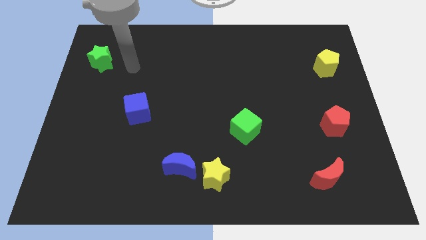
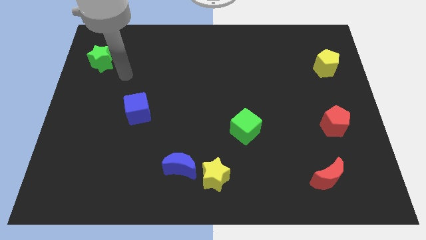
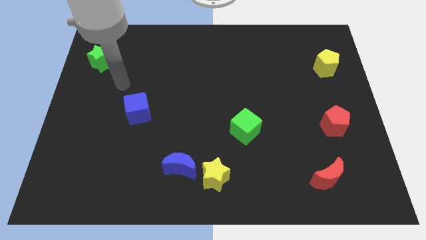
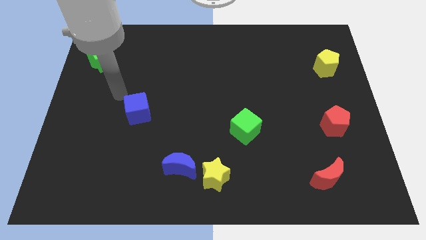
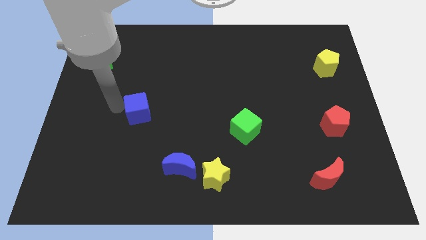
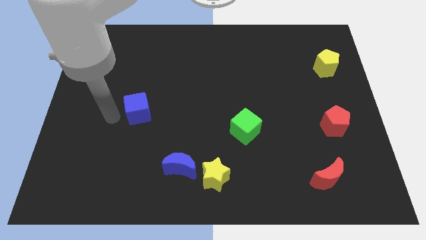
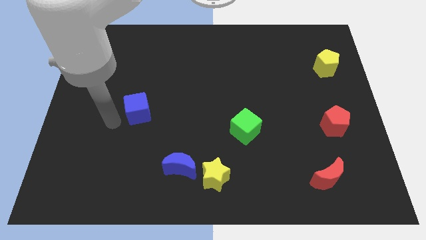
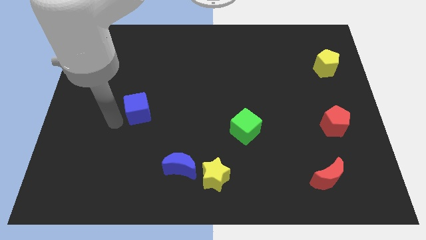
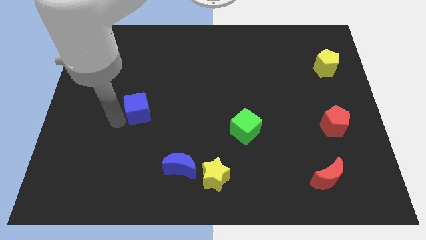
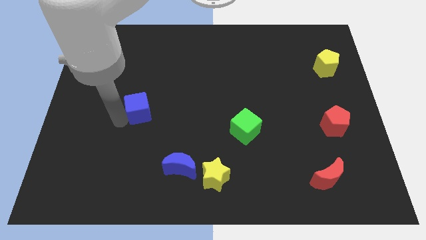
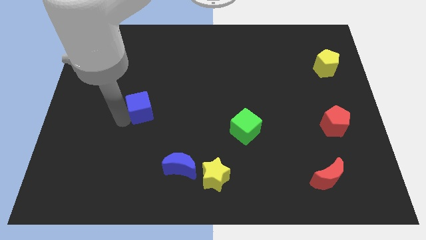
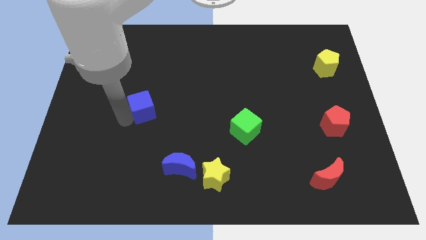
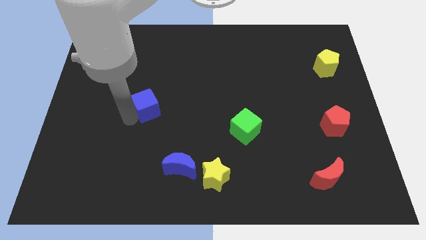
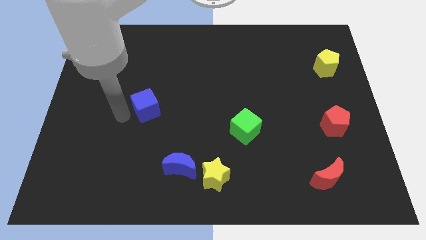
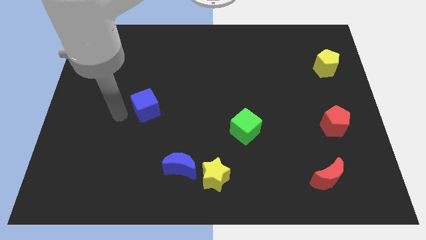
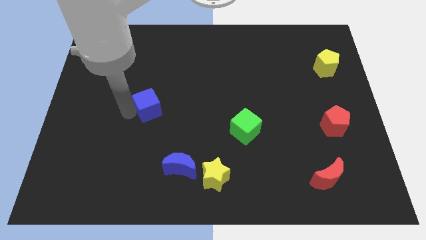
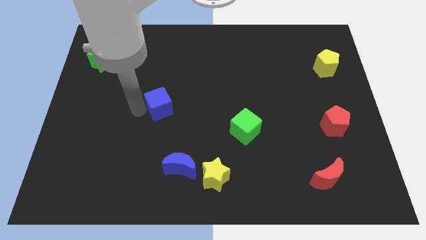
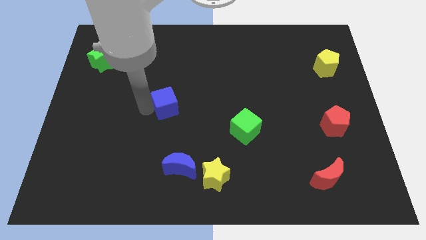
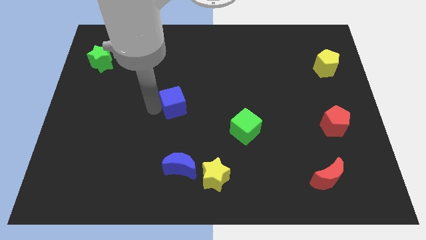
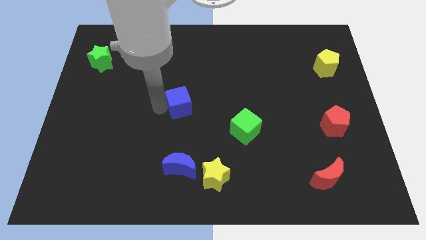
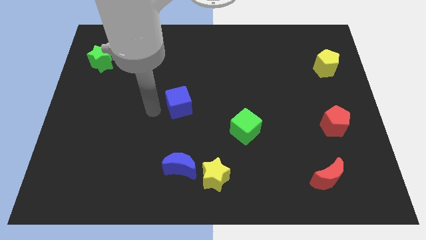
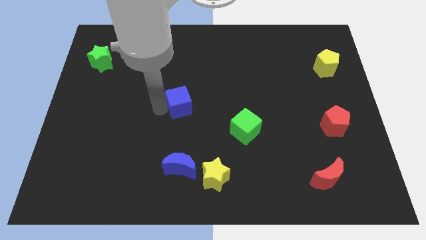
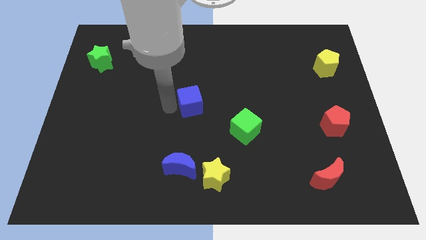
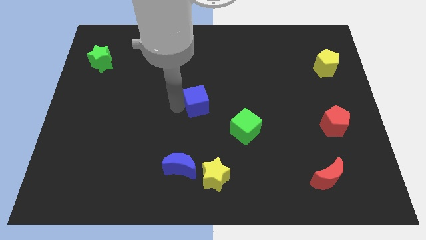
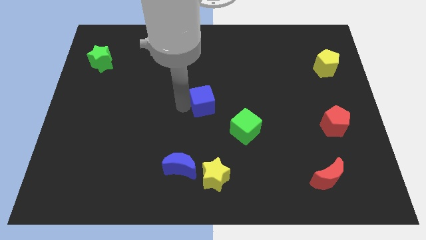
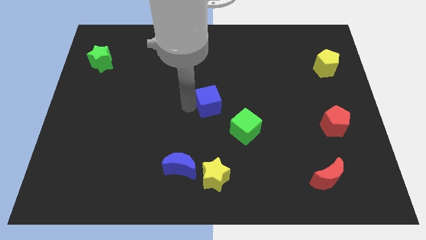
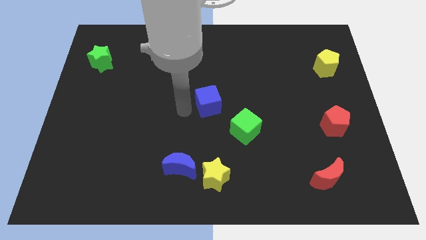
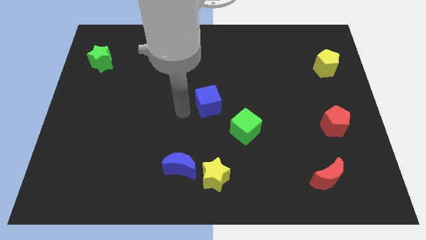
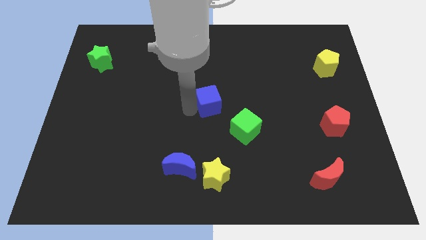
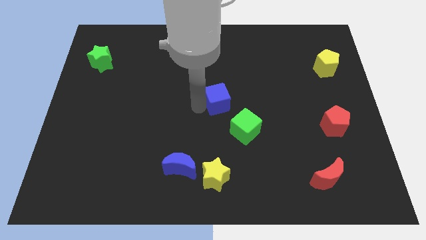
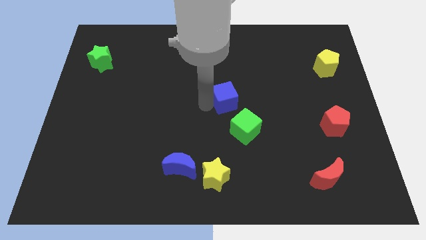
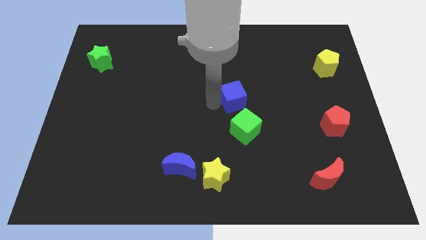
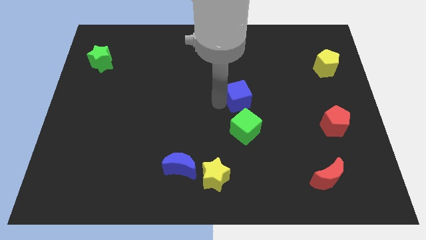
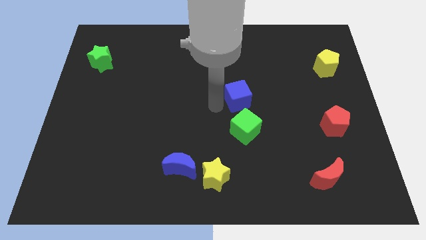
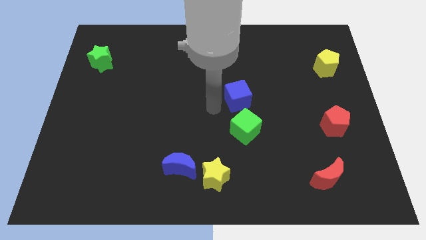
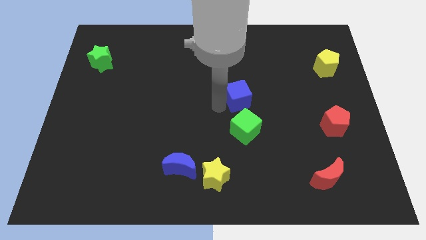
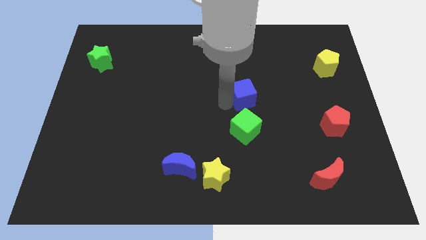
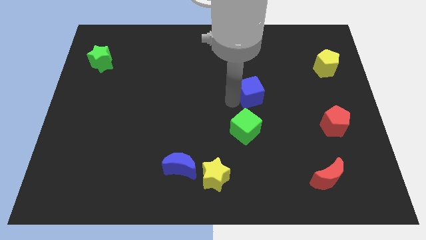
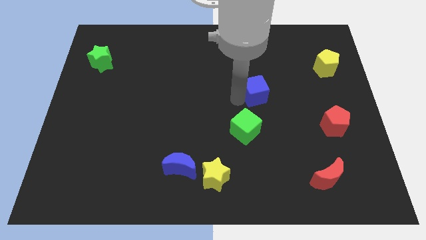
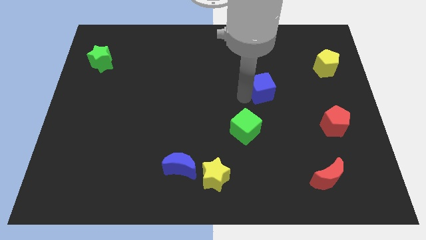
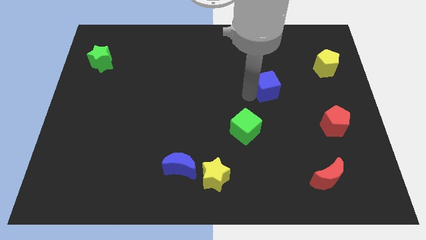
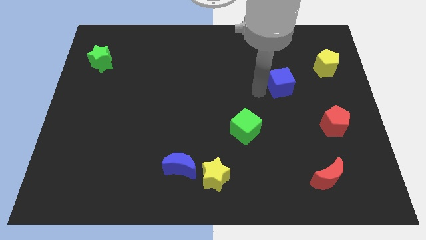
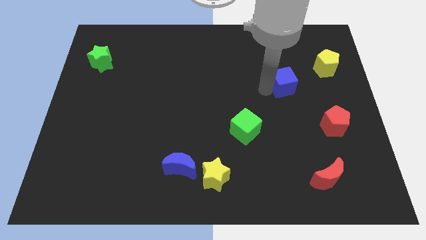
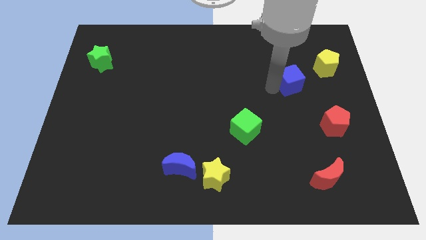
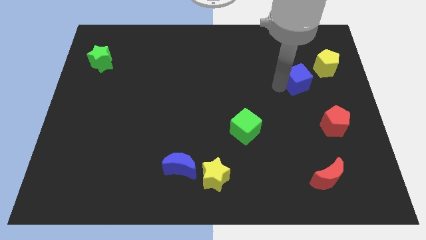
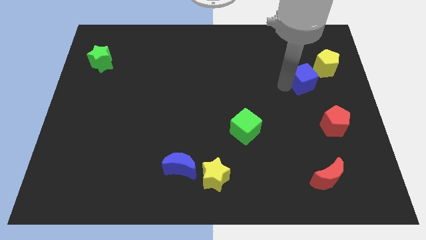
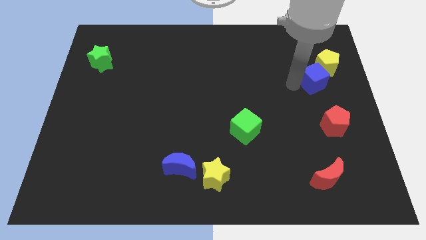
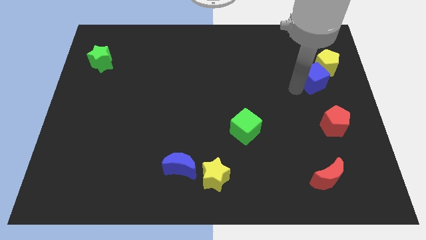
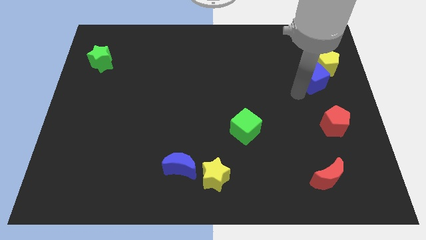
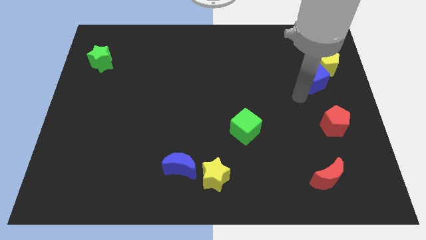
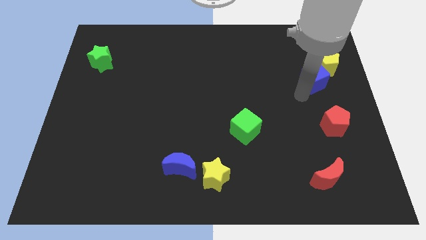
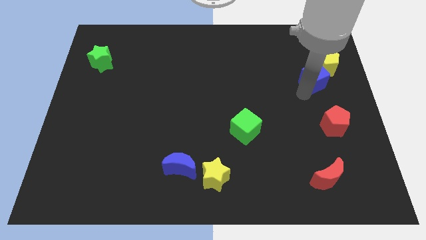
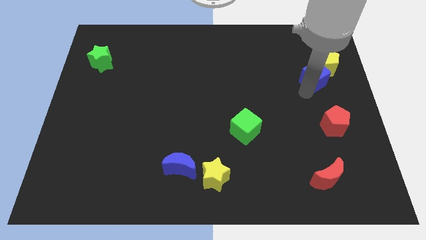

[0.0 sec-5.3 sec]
slide the blue cube towards the yellow pentagon

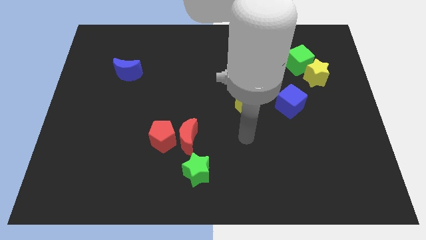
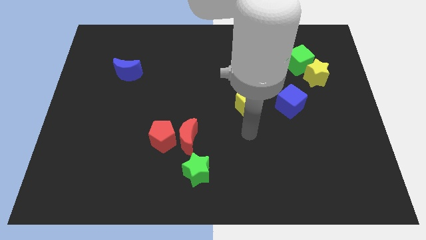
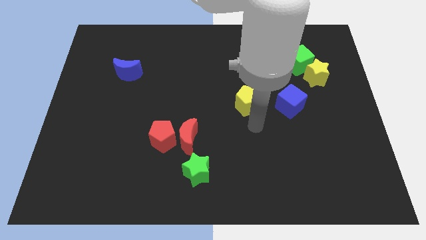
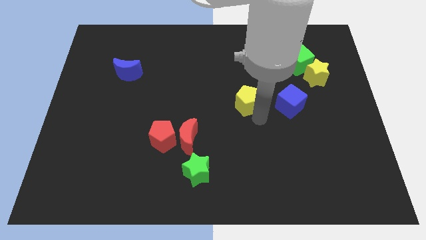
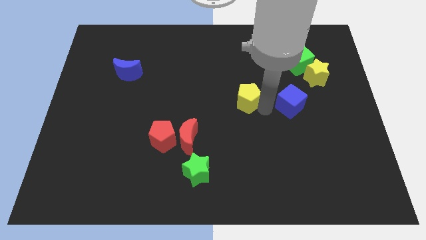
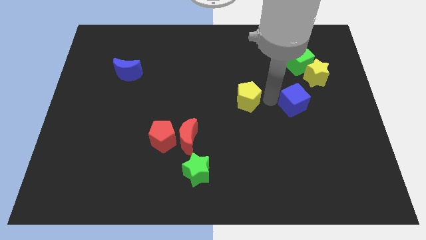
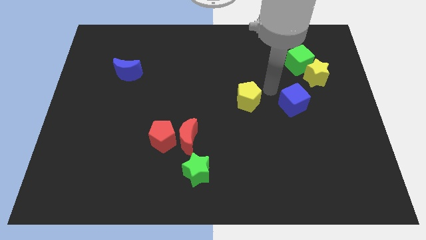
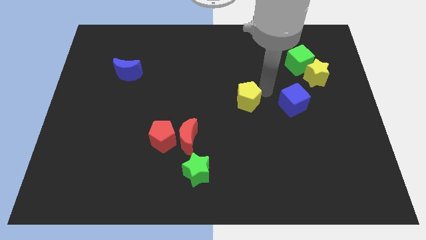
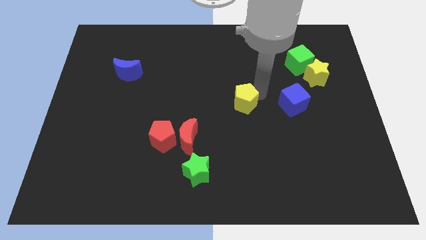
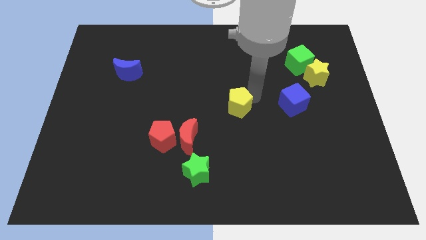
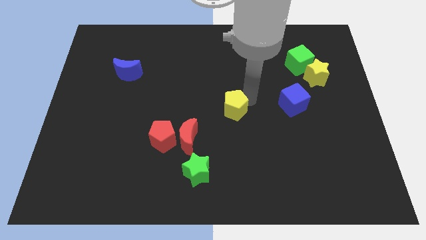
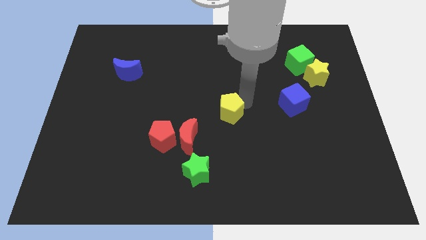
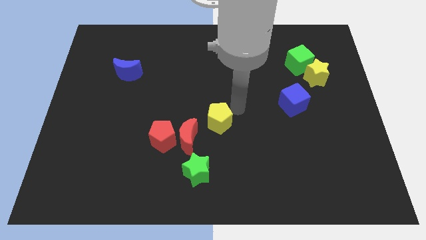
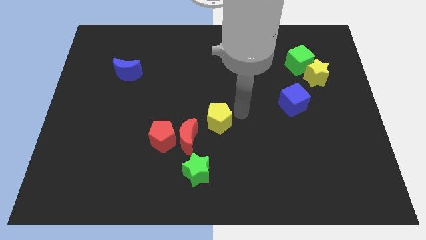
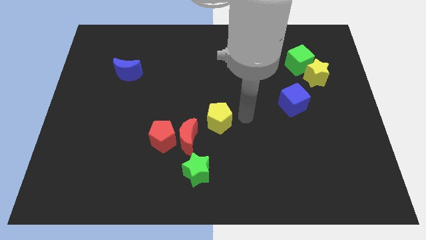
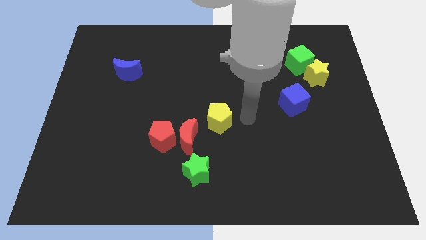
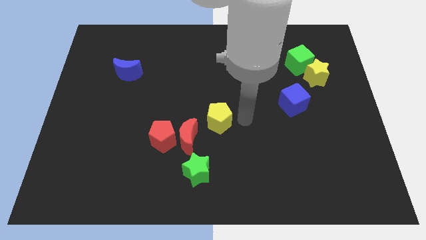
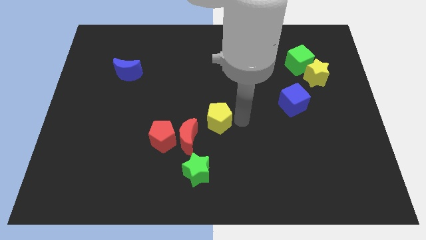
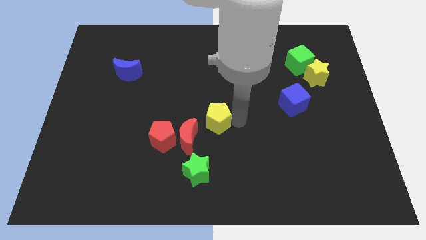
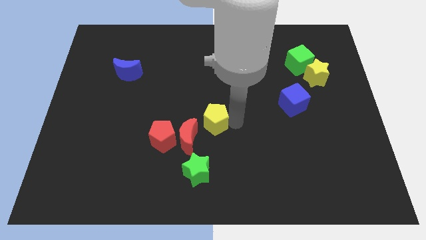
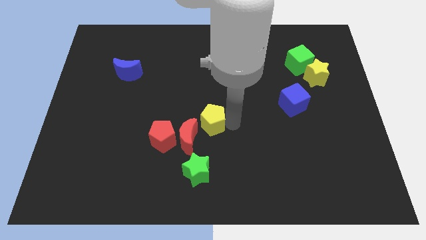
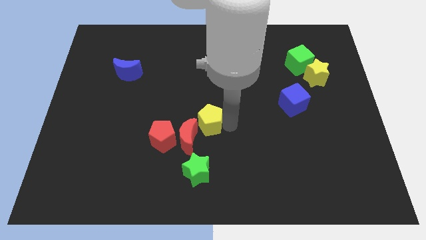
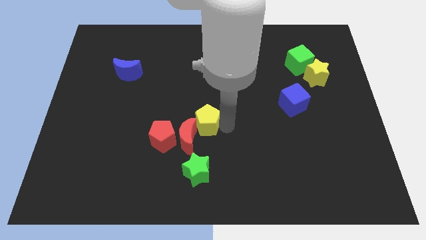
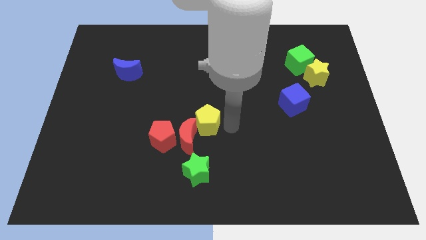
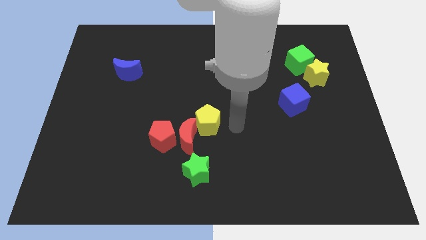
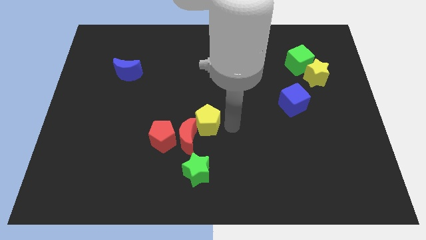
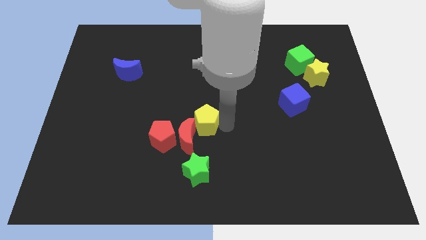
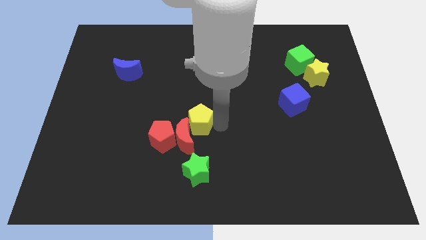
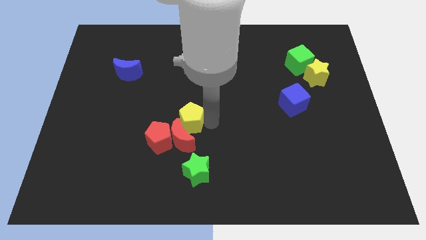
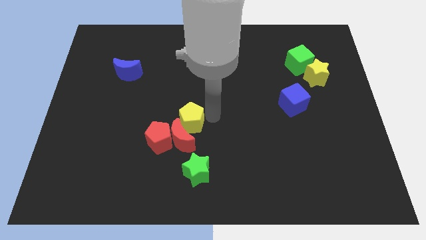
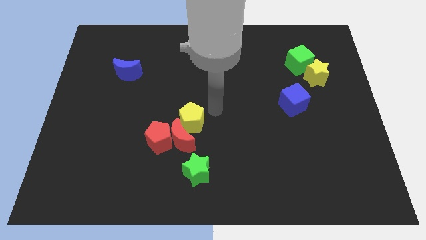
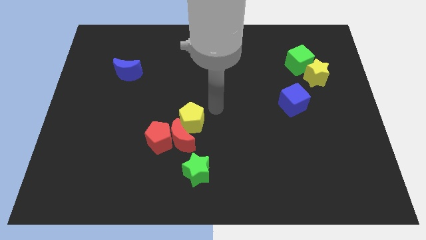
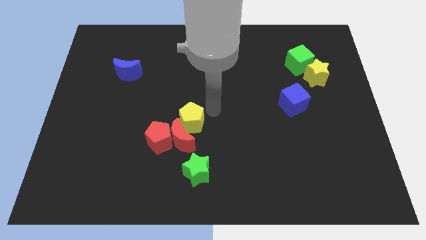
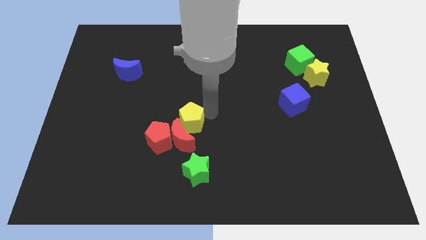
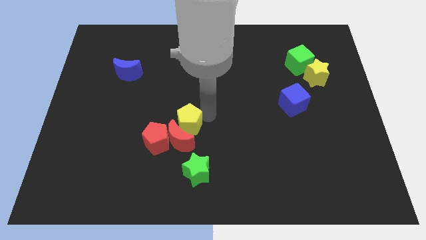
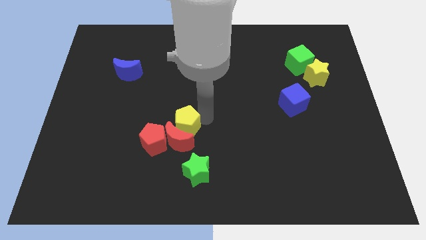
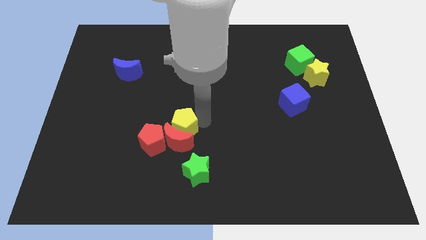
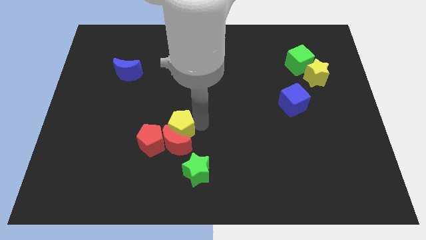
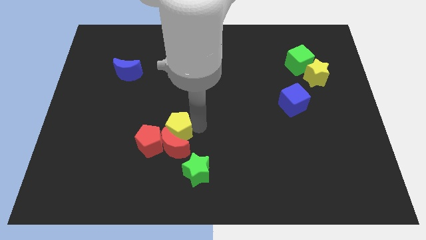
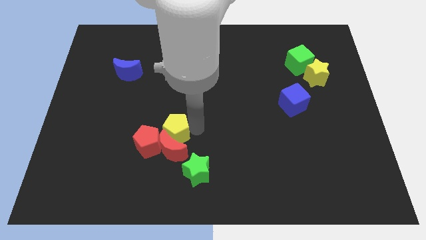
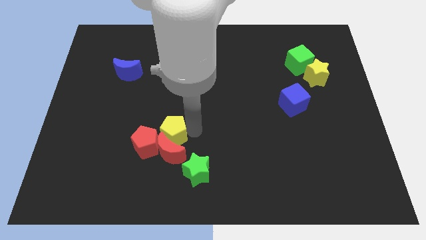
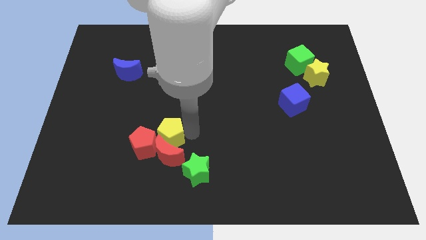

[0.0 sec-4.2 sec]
slide the yellow pentagon to the red pentagon
